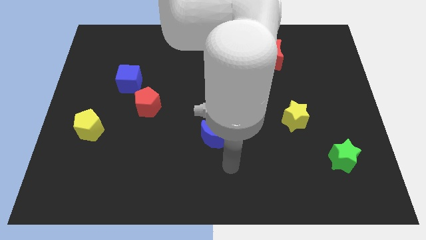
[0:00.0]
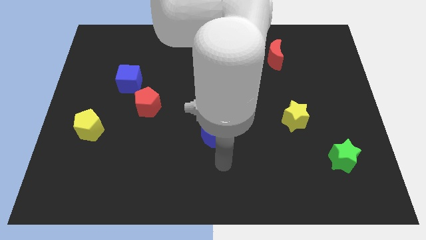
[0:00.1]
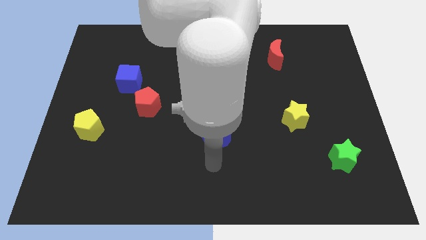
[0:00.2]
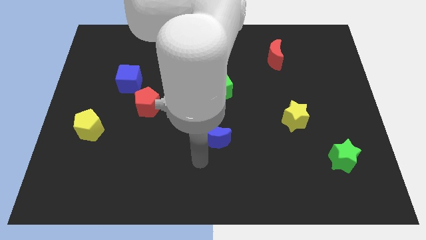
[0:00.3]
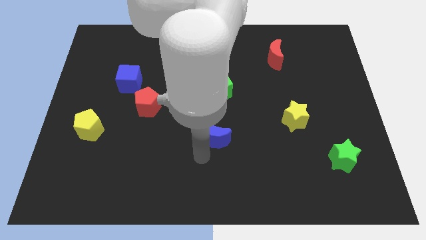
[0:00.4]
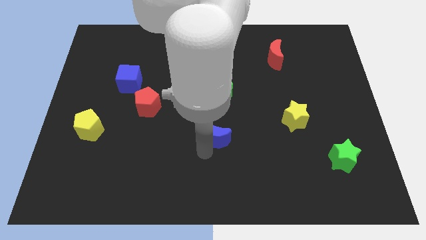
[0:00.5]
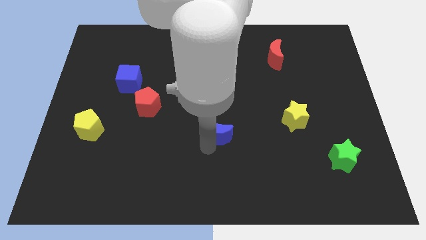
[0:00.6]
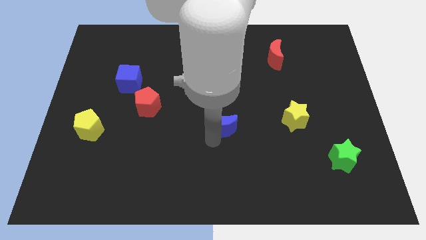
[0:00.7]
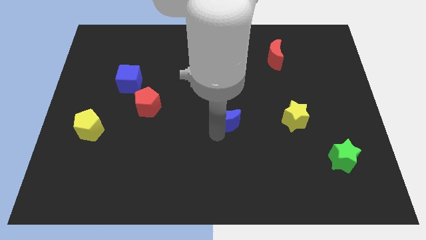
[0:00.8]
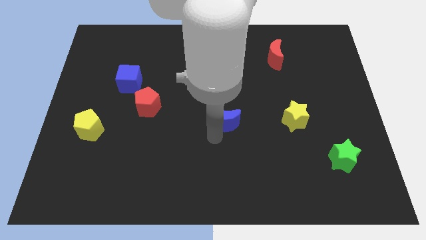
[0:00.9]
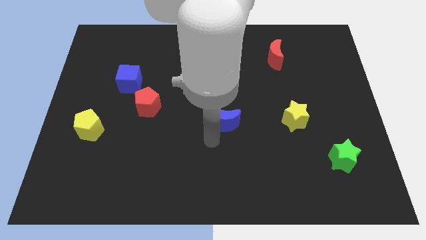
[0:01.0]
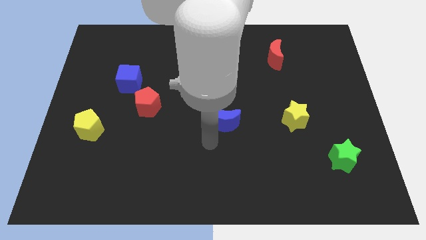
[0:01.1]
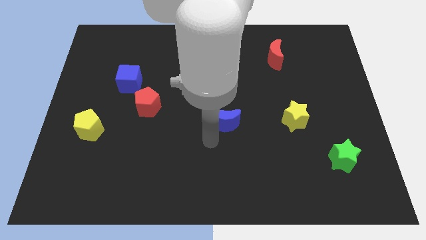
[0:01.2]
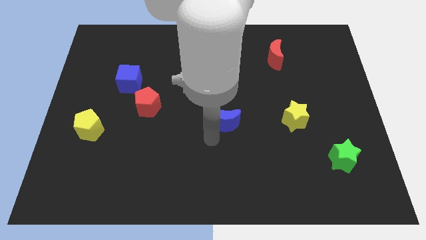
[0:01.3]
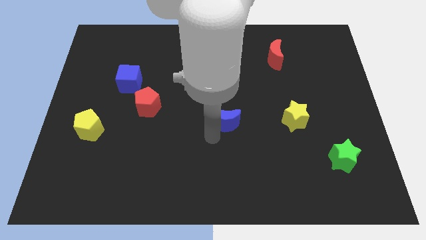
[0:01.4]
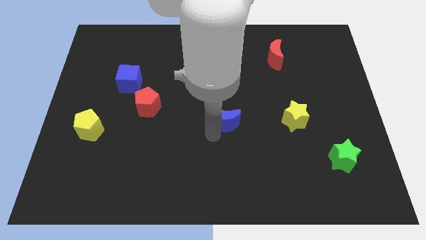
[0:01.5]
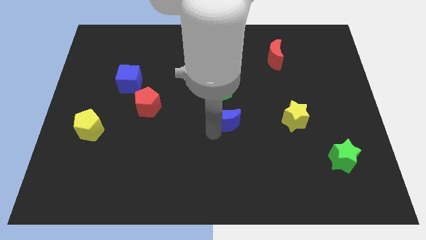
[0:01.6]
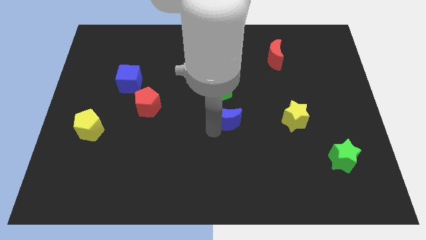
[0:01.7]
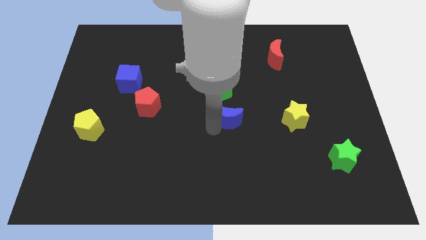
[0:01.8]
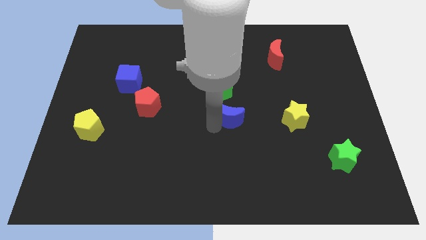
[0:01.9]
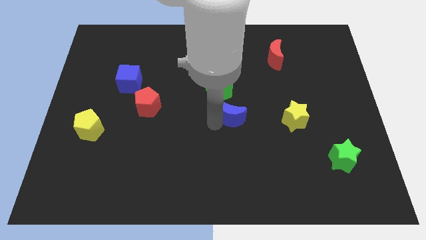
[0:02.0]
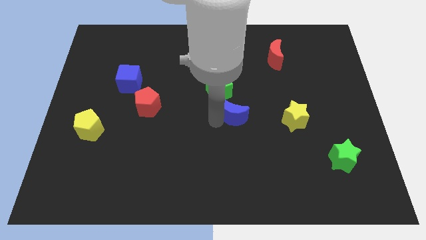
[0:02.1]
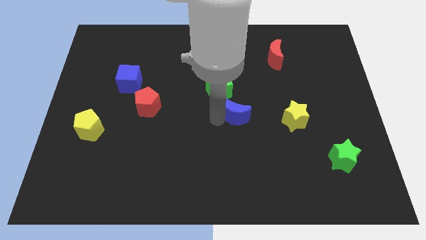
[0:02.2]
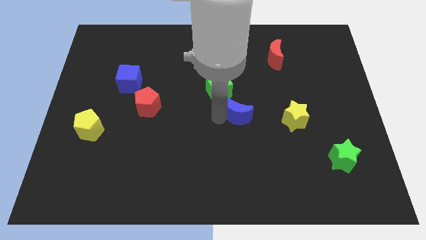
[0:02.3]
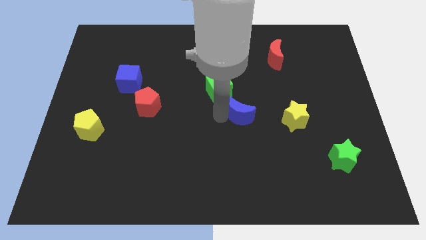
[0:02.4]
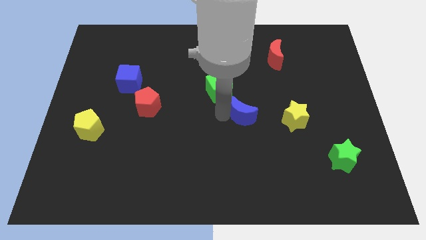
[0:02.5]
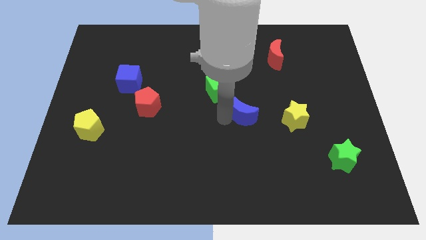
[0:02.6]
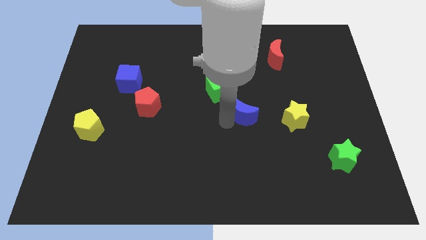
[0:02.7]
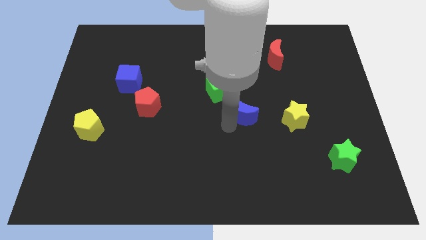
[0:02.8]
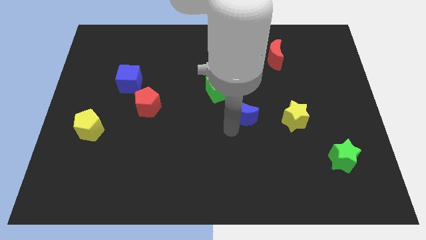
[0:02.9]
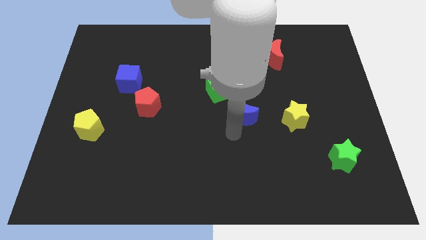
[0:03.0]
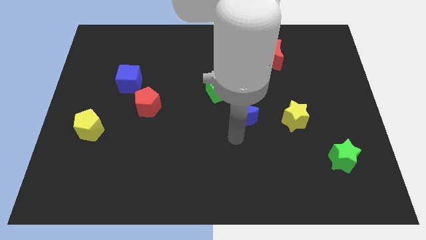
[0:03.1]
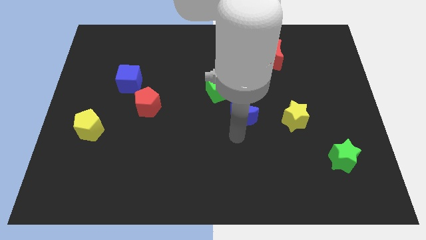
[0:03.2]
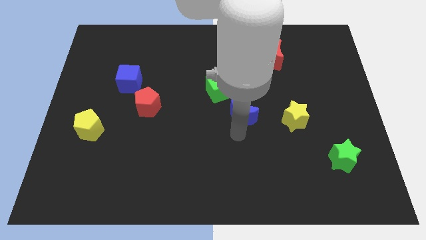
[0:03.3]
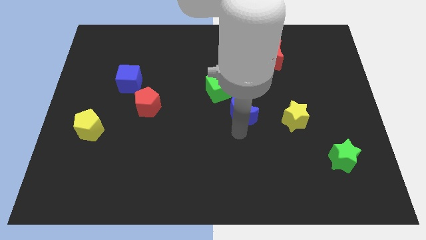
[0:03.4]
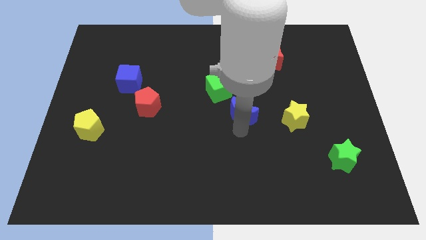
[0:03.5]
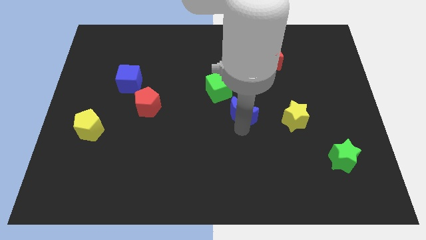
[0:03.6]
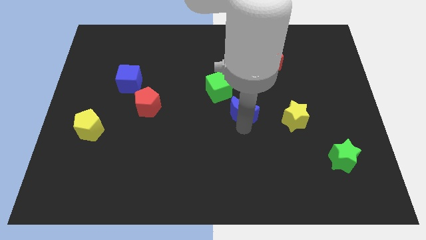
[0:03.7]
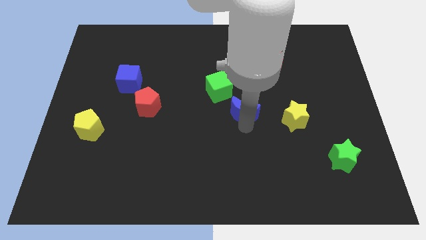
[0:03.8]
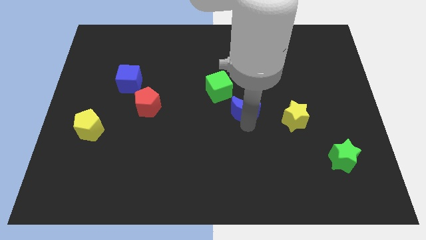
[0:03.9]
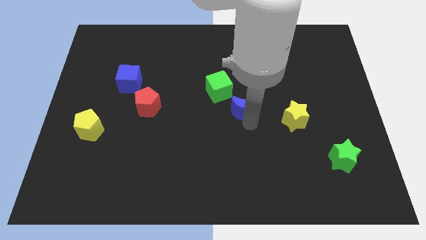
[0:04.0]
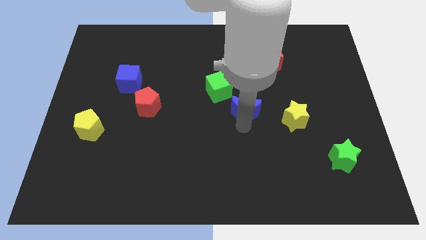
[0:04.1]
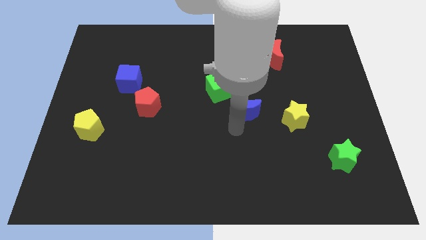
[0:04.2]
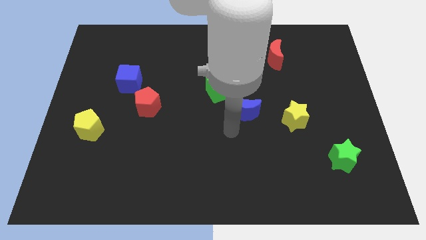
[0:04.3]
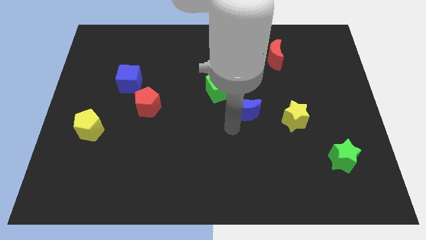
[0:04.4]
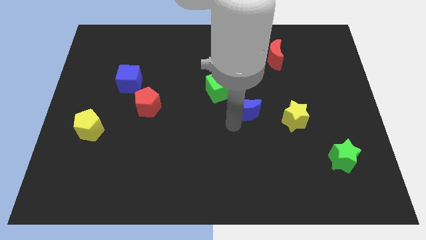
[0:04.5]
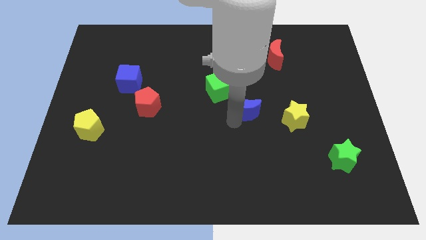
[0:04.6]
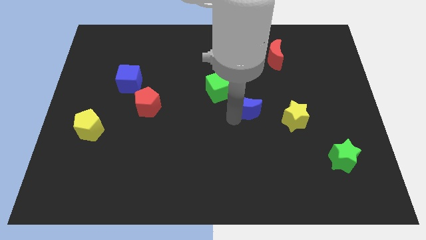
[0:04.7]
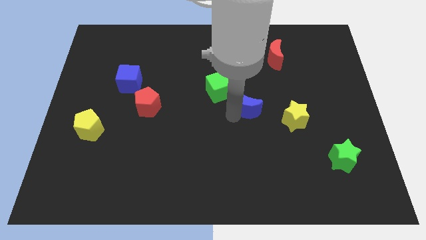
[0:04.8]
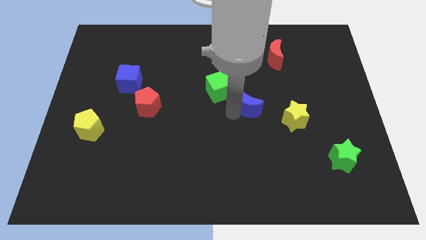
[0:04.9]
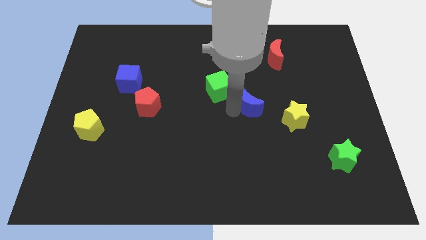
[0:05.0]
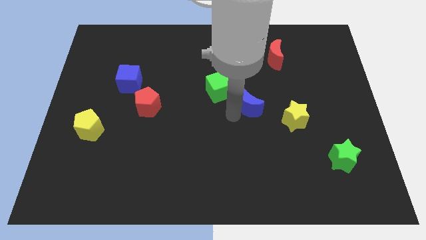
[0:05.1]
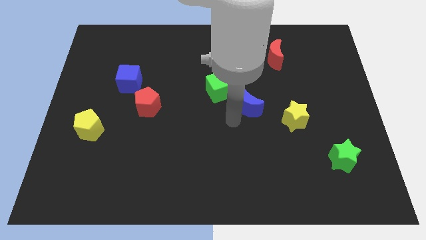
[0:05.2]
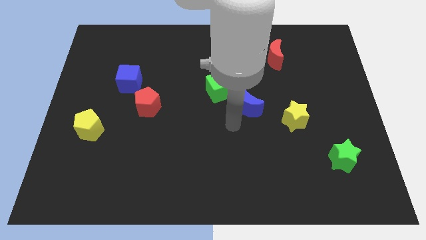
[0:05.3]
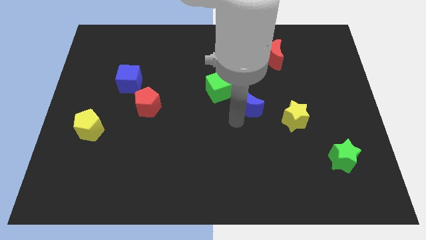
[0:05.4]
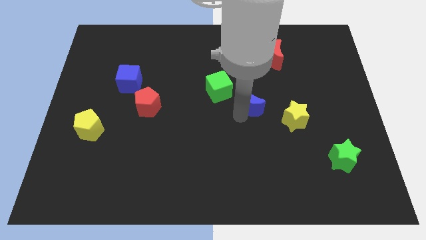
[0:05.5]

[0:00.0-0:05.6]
move the blue moon to the right of the green cube

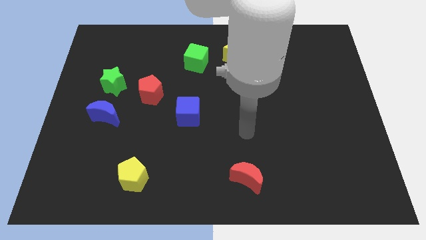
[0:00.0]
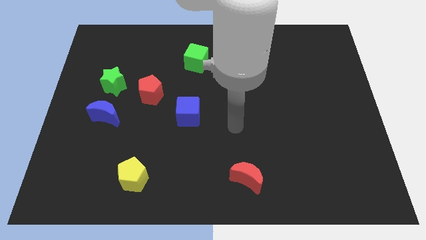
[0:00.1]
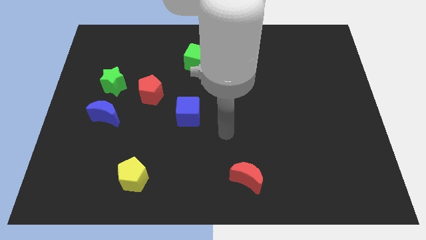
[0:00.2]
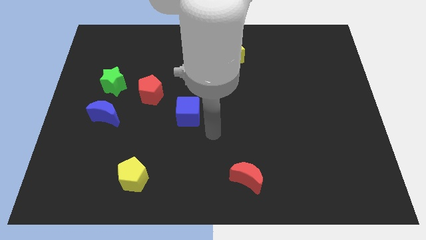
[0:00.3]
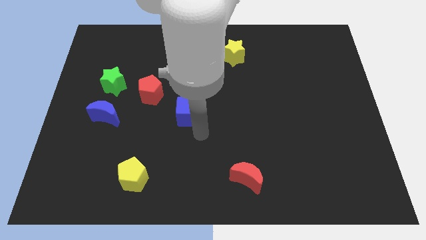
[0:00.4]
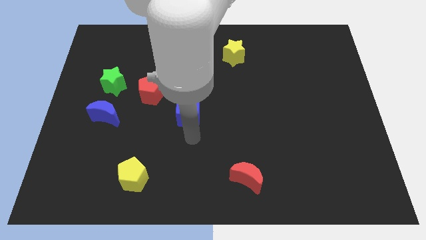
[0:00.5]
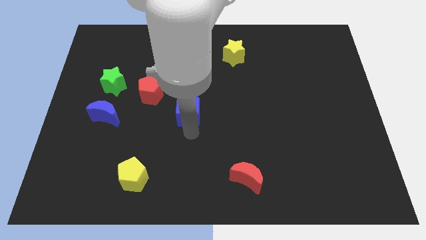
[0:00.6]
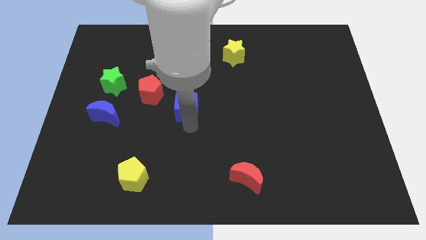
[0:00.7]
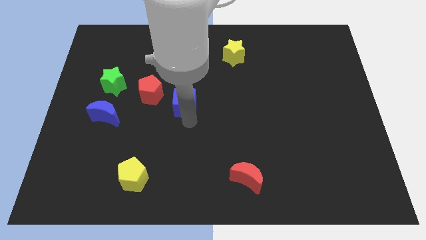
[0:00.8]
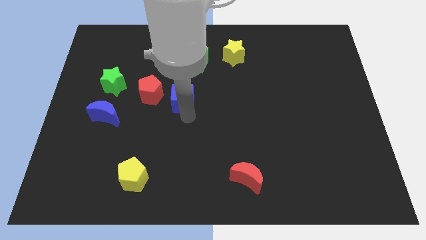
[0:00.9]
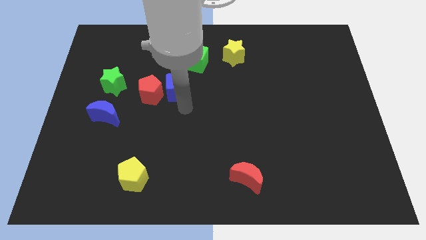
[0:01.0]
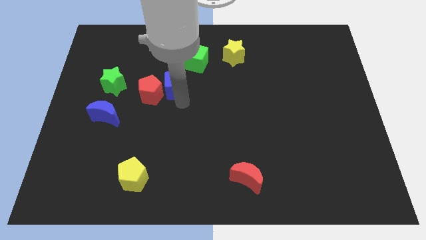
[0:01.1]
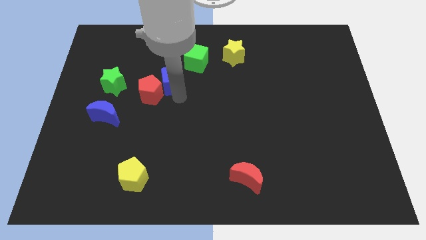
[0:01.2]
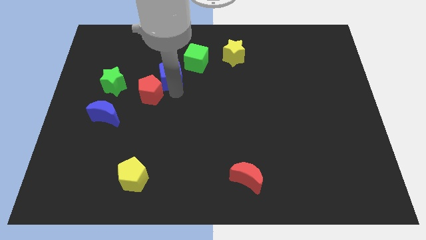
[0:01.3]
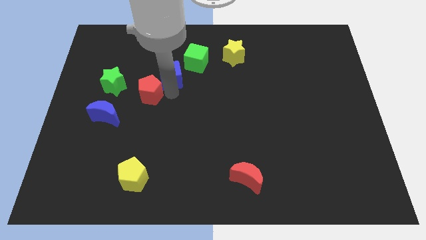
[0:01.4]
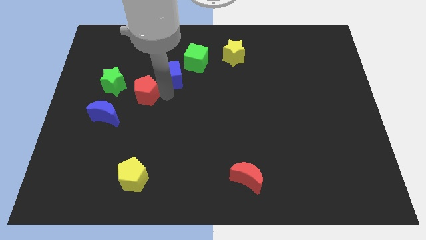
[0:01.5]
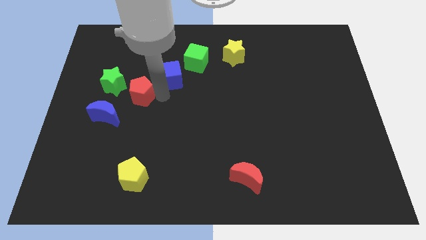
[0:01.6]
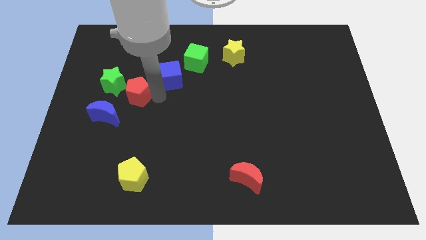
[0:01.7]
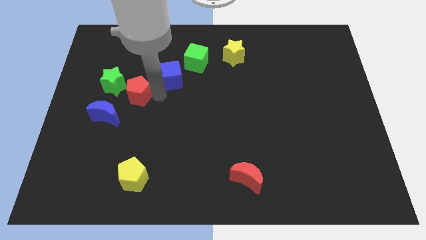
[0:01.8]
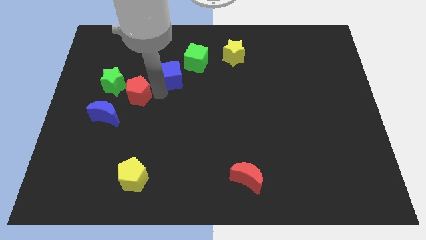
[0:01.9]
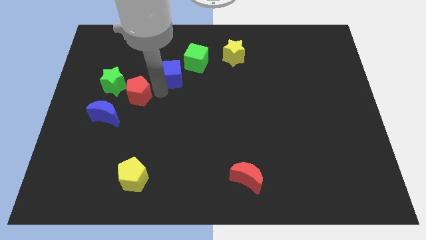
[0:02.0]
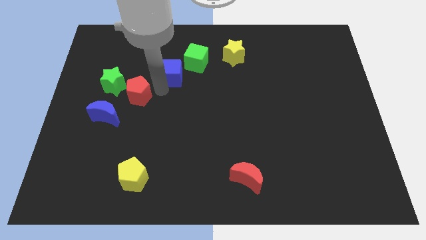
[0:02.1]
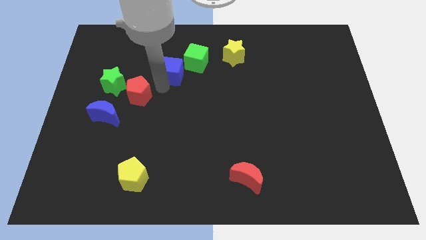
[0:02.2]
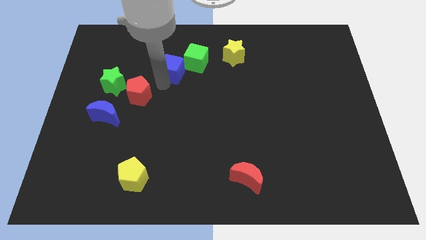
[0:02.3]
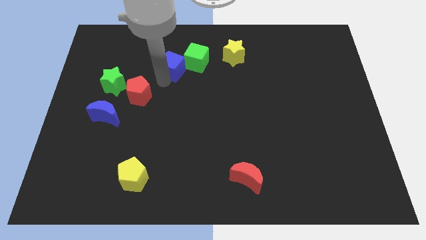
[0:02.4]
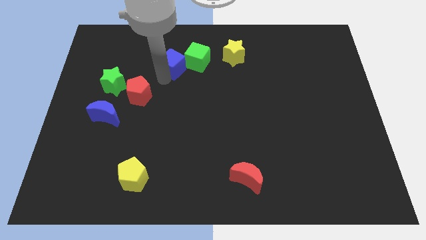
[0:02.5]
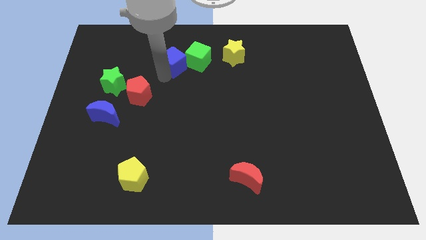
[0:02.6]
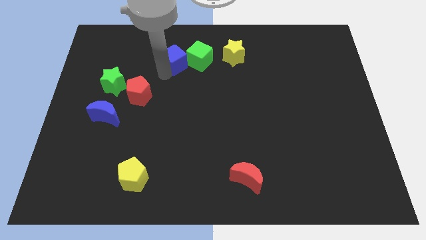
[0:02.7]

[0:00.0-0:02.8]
move the blue cube to the left side of the yellow star
